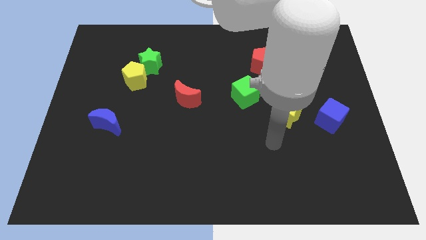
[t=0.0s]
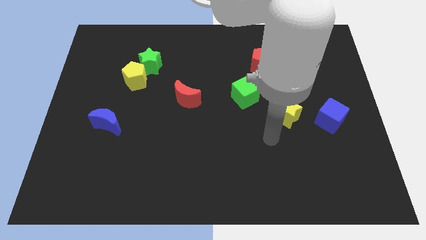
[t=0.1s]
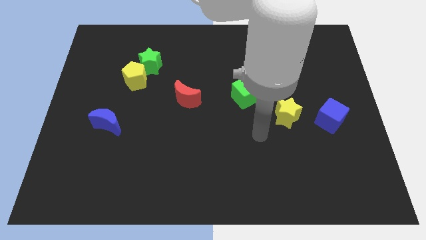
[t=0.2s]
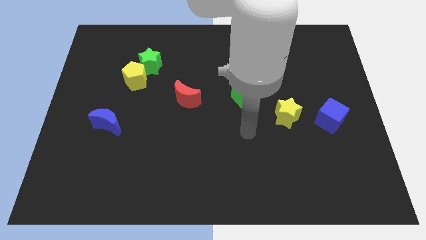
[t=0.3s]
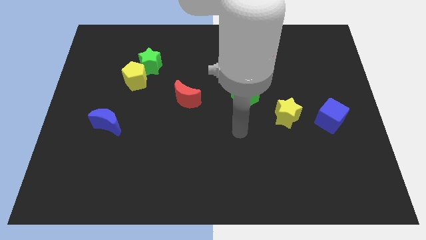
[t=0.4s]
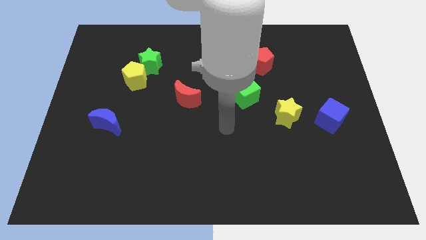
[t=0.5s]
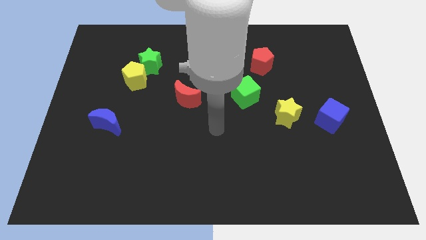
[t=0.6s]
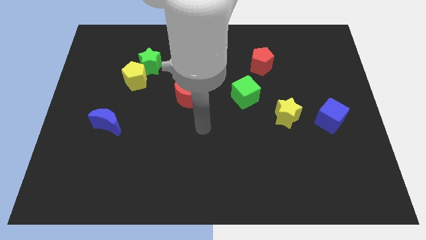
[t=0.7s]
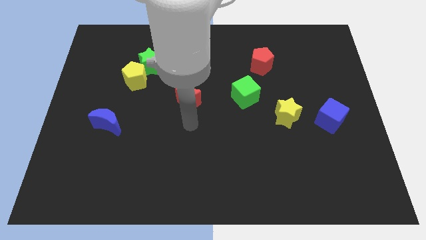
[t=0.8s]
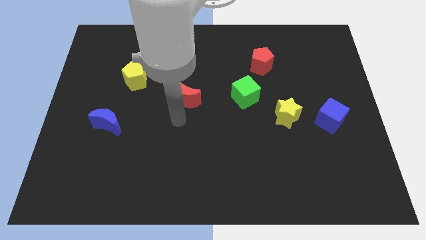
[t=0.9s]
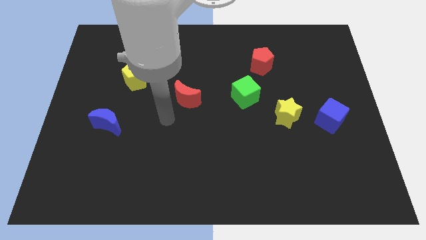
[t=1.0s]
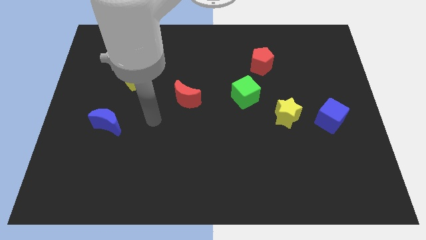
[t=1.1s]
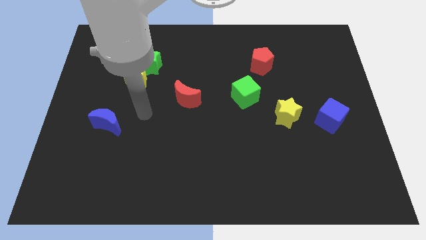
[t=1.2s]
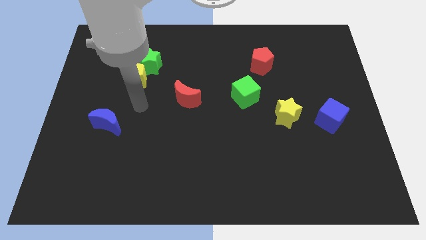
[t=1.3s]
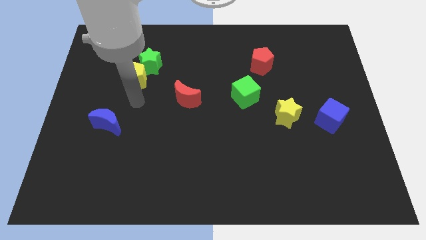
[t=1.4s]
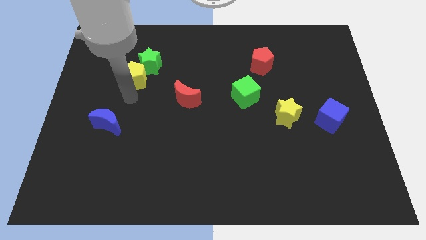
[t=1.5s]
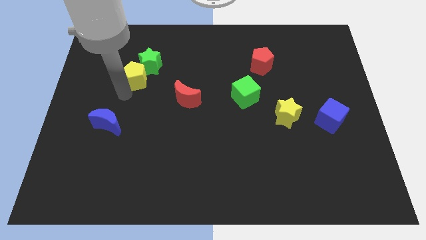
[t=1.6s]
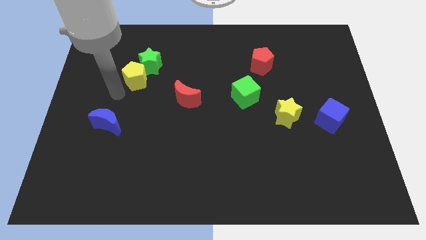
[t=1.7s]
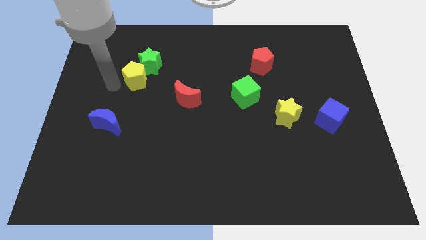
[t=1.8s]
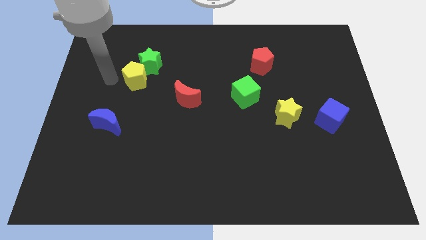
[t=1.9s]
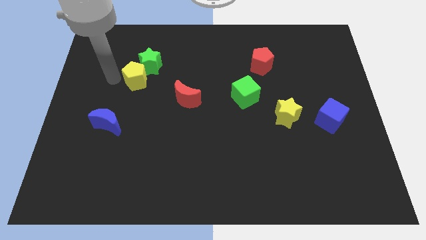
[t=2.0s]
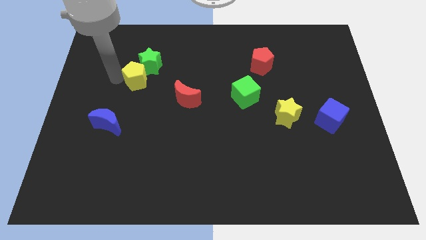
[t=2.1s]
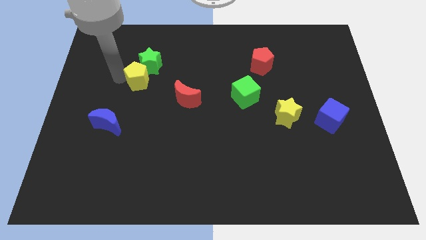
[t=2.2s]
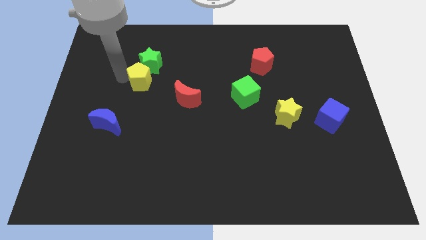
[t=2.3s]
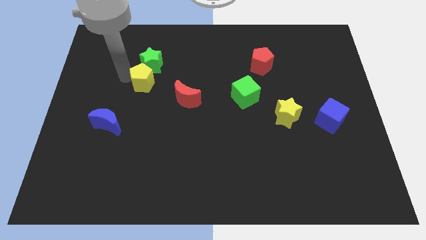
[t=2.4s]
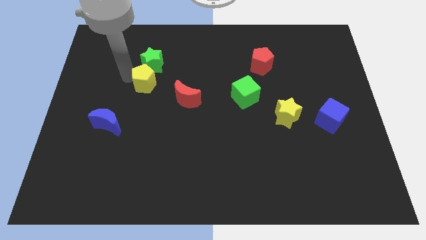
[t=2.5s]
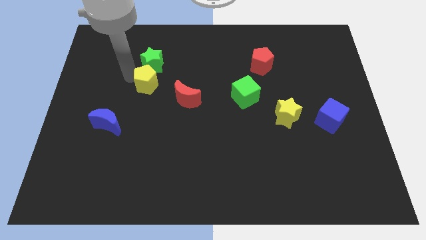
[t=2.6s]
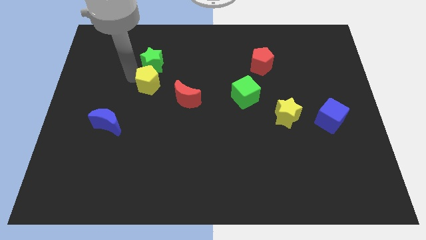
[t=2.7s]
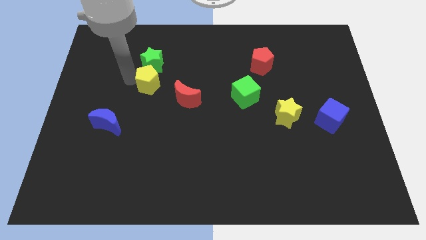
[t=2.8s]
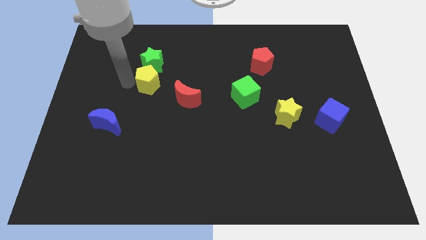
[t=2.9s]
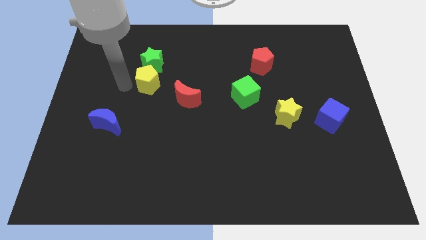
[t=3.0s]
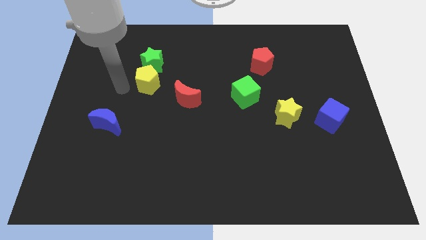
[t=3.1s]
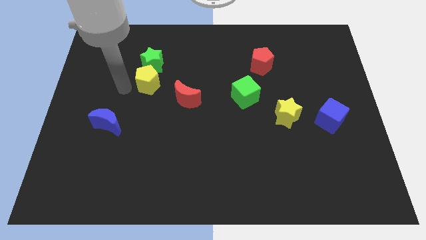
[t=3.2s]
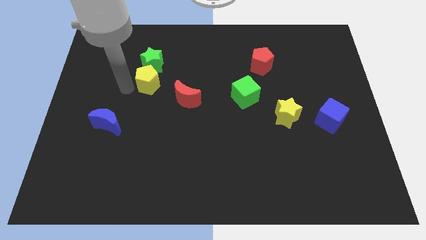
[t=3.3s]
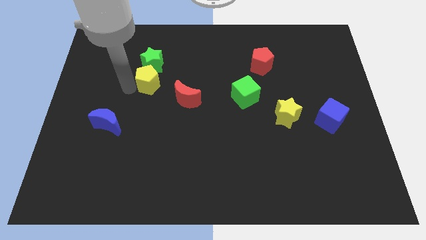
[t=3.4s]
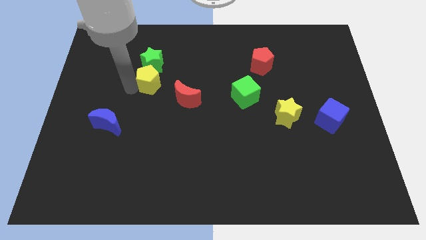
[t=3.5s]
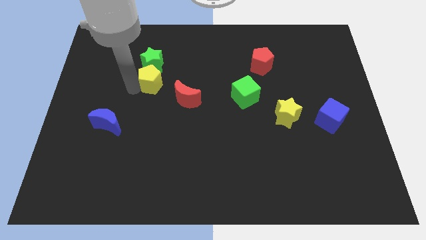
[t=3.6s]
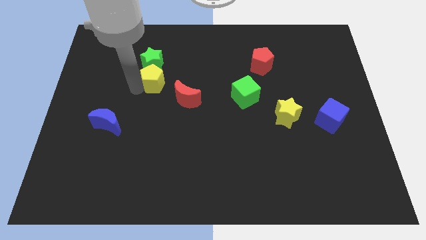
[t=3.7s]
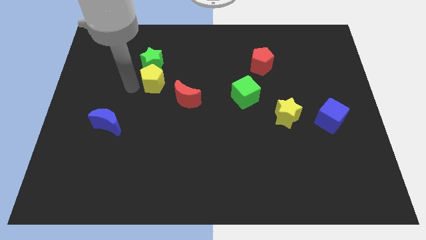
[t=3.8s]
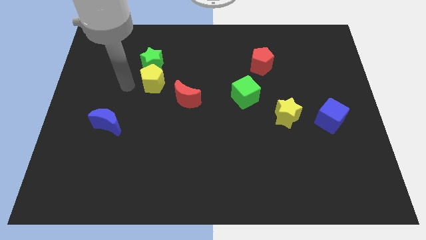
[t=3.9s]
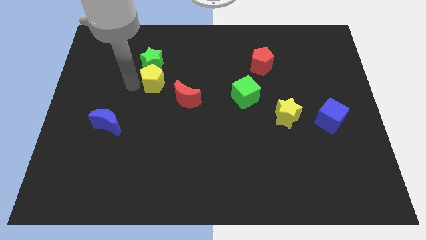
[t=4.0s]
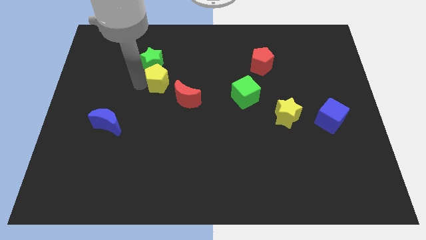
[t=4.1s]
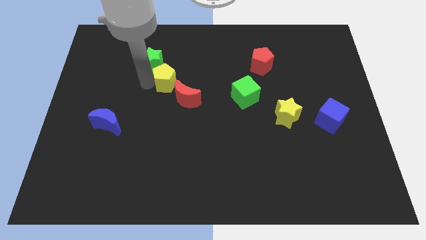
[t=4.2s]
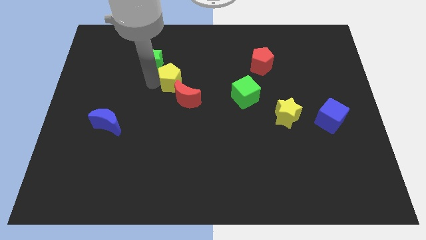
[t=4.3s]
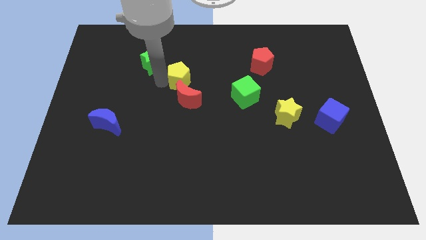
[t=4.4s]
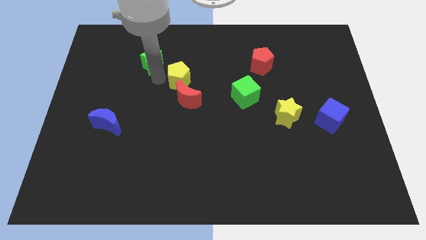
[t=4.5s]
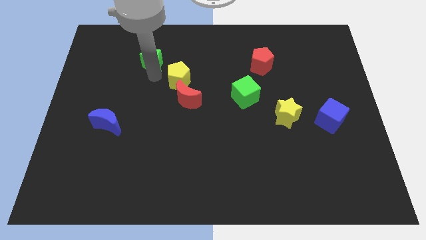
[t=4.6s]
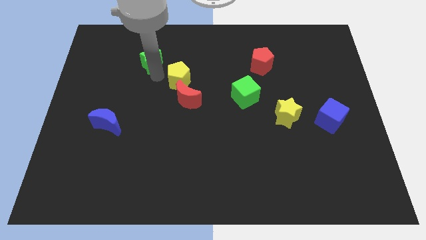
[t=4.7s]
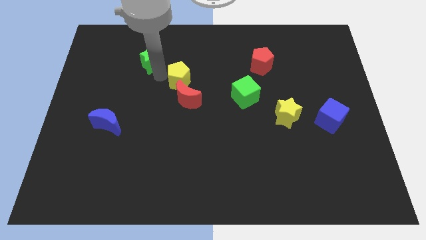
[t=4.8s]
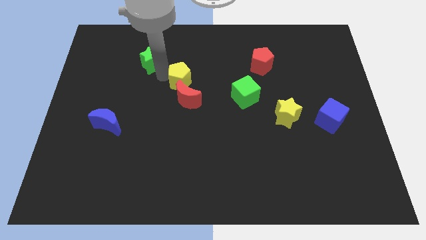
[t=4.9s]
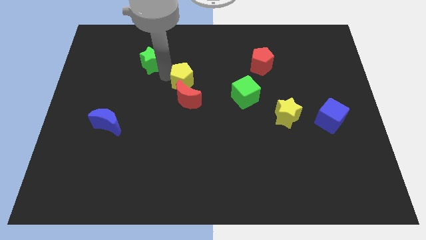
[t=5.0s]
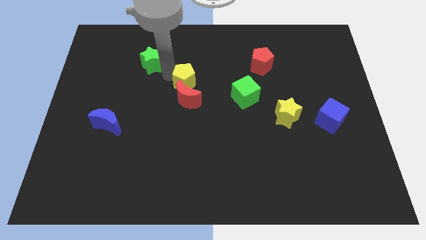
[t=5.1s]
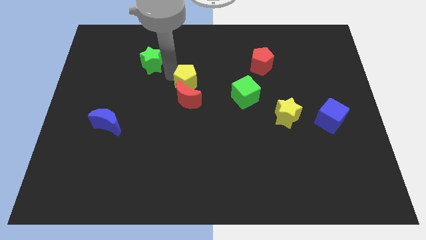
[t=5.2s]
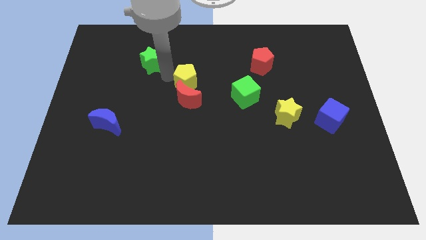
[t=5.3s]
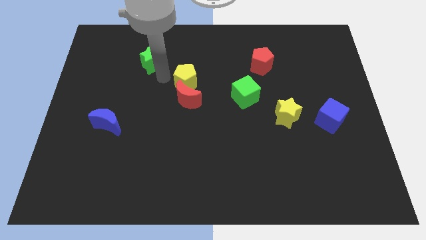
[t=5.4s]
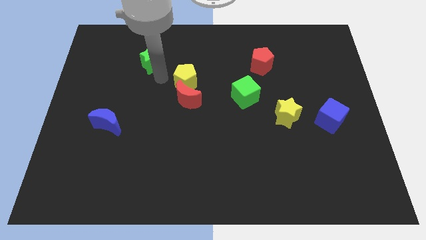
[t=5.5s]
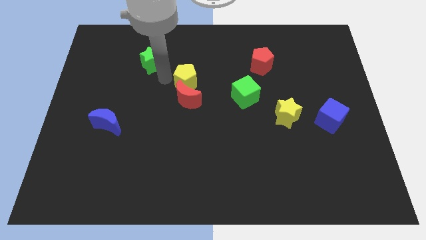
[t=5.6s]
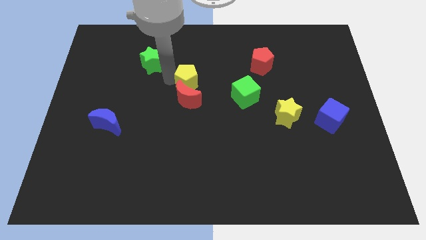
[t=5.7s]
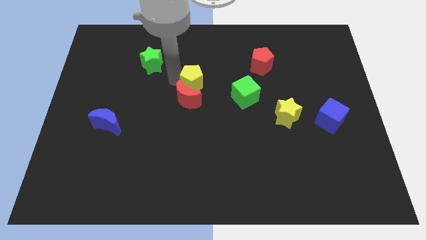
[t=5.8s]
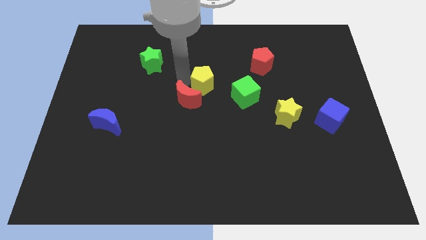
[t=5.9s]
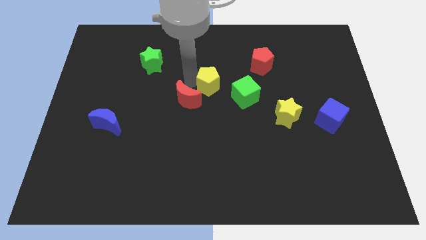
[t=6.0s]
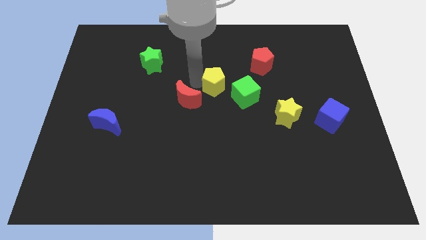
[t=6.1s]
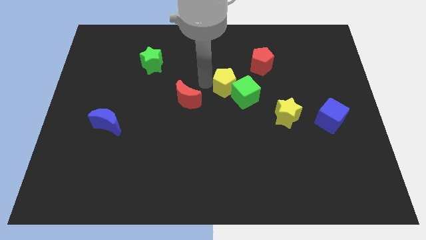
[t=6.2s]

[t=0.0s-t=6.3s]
push the yellow pentagon towards the green cube

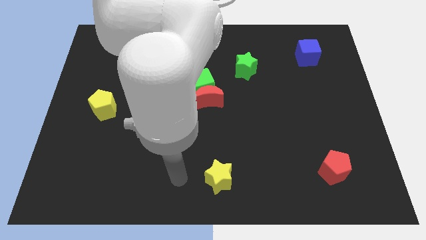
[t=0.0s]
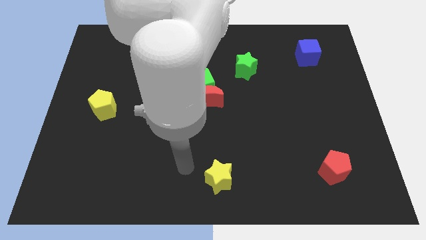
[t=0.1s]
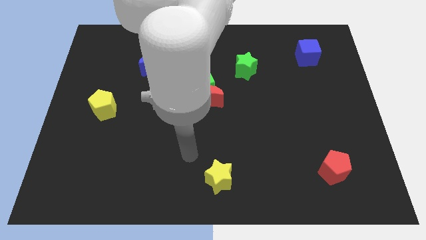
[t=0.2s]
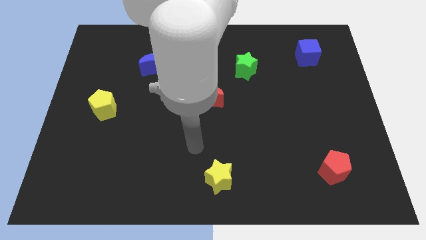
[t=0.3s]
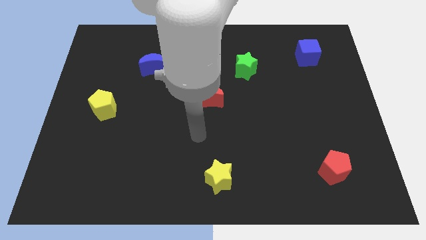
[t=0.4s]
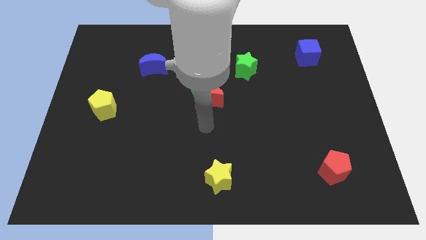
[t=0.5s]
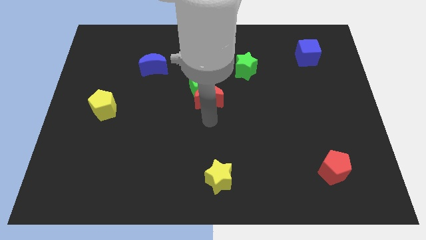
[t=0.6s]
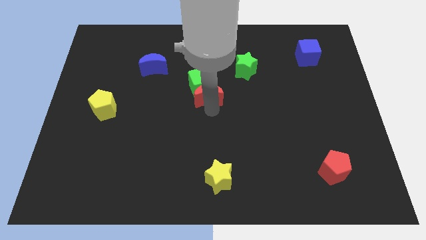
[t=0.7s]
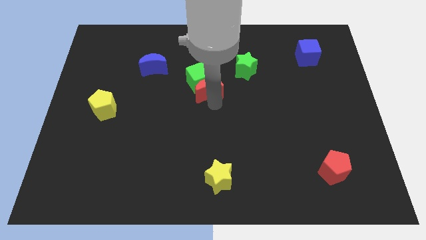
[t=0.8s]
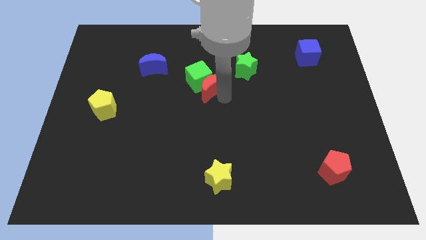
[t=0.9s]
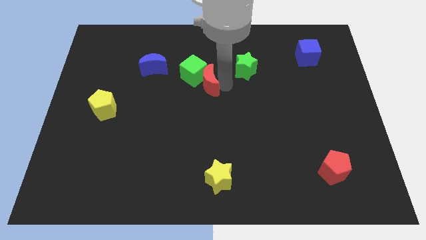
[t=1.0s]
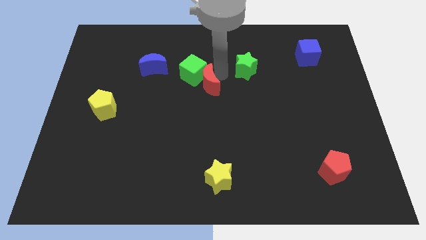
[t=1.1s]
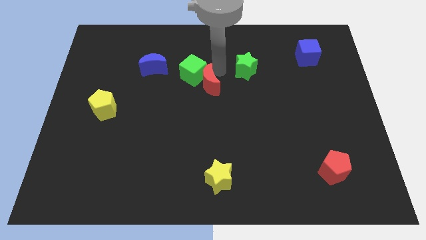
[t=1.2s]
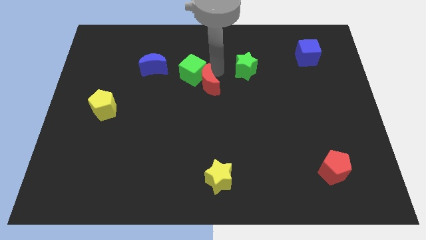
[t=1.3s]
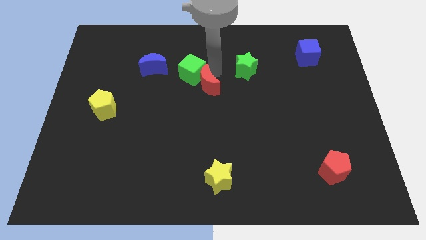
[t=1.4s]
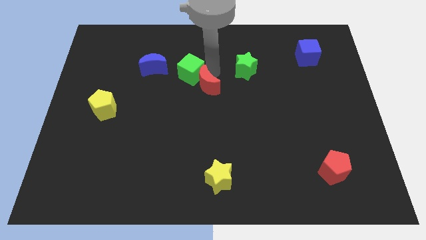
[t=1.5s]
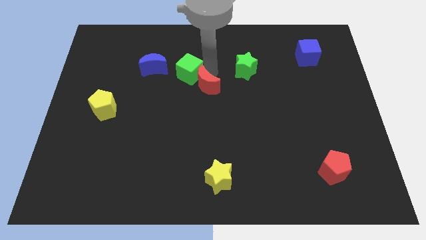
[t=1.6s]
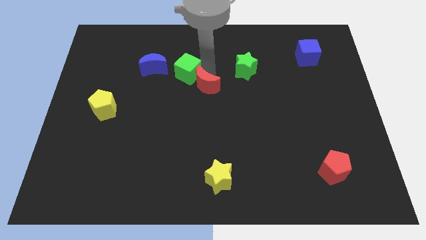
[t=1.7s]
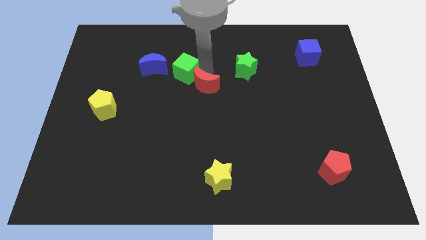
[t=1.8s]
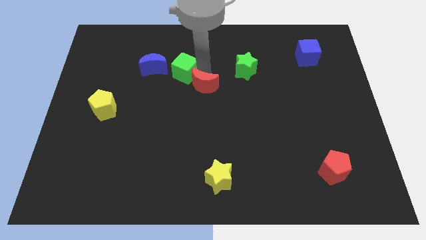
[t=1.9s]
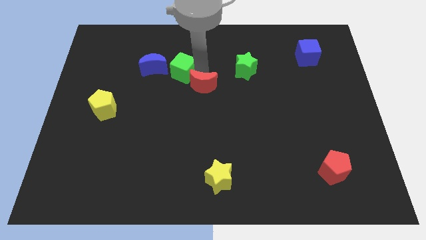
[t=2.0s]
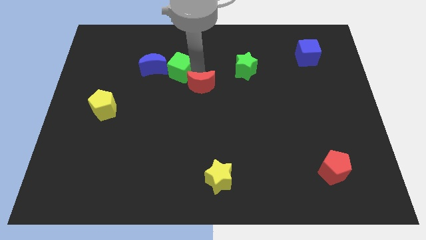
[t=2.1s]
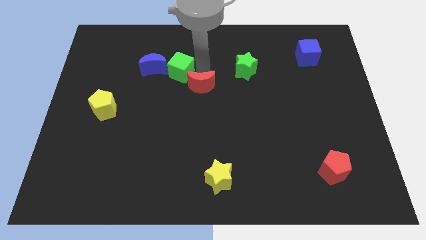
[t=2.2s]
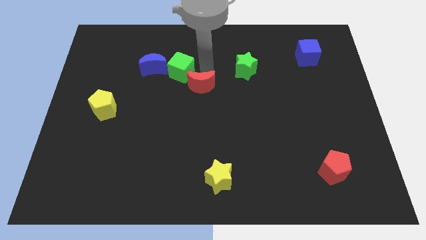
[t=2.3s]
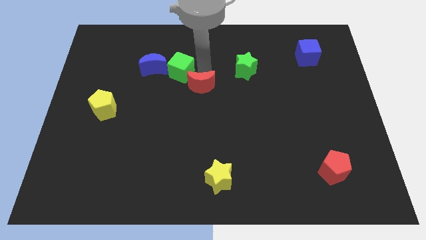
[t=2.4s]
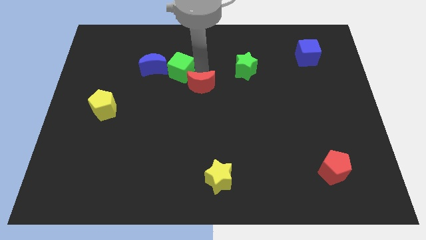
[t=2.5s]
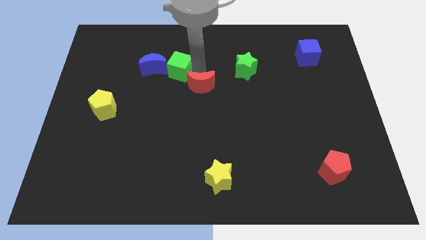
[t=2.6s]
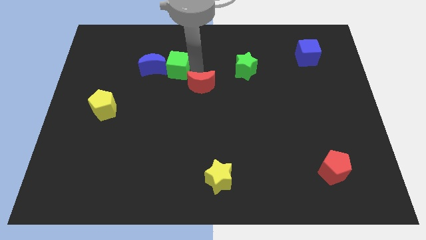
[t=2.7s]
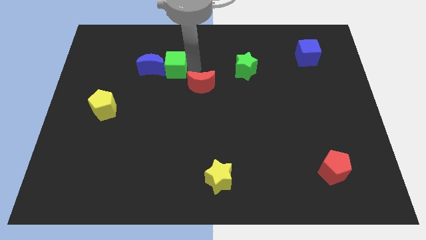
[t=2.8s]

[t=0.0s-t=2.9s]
put the green cube to the blue moon
